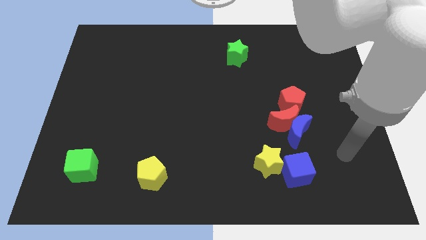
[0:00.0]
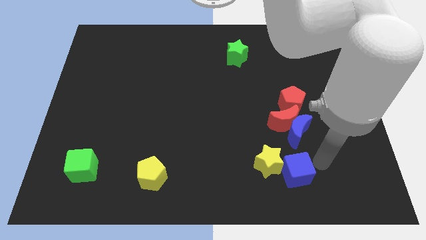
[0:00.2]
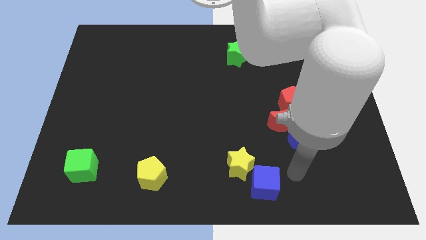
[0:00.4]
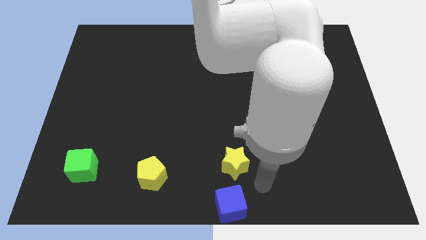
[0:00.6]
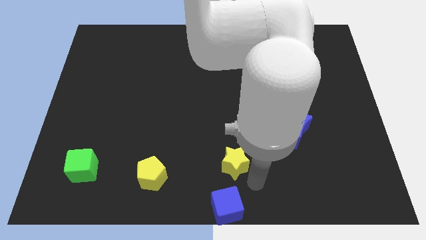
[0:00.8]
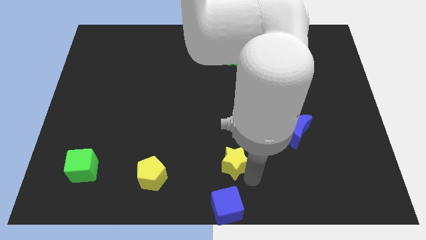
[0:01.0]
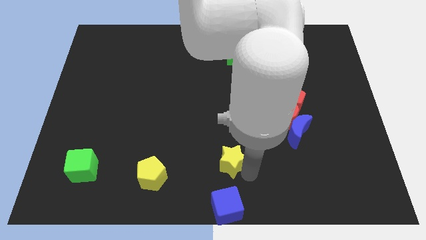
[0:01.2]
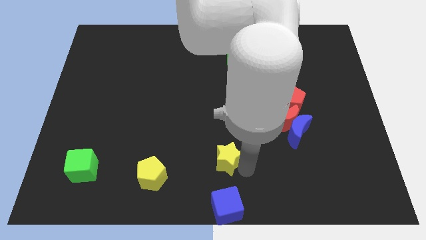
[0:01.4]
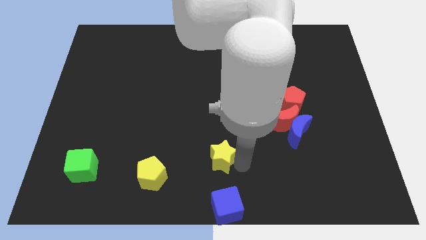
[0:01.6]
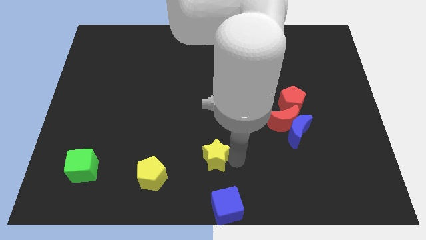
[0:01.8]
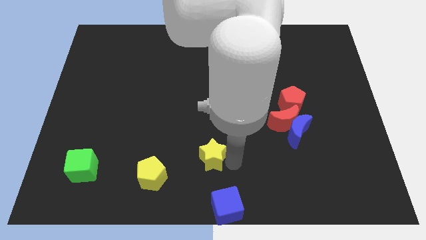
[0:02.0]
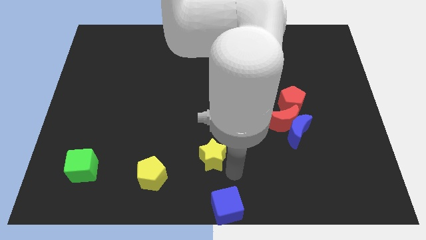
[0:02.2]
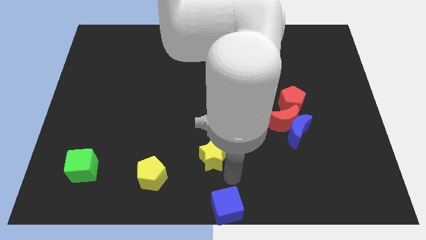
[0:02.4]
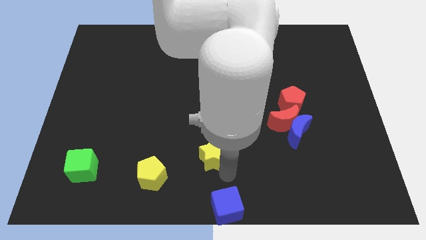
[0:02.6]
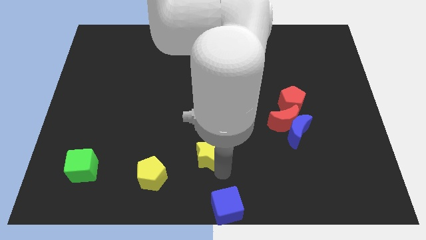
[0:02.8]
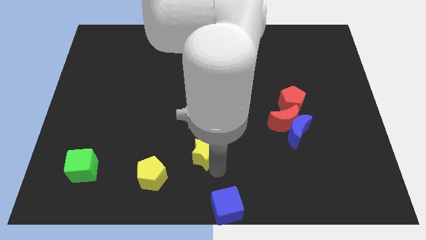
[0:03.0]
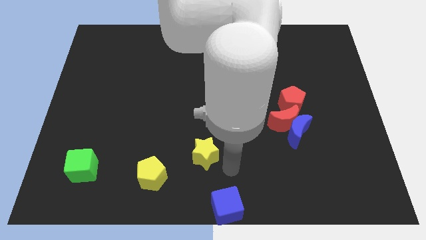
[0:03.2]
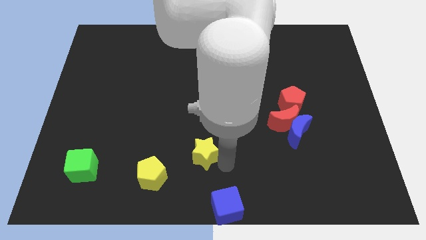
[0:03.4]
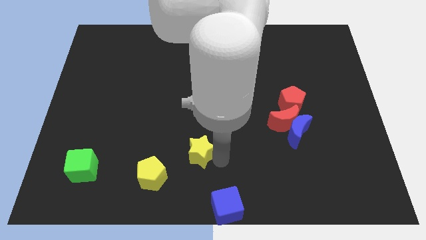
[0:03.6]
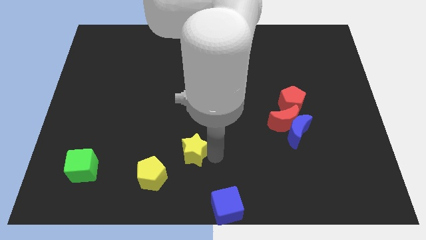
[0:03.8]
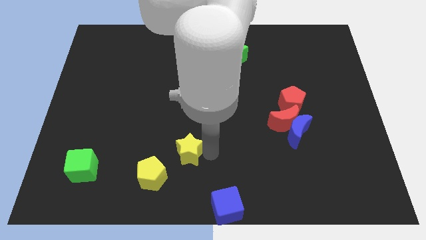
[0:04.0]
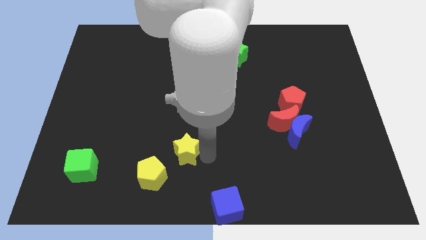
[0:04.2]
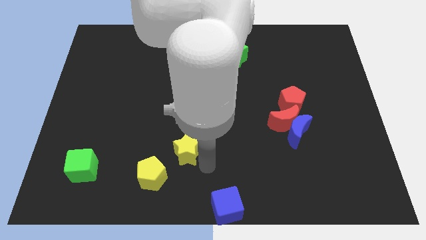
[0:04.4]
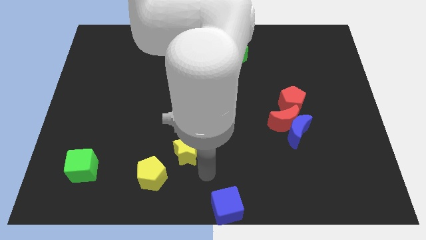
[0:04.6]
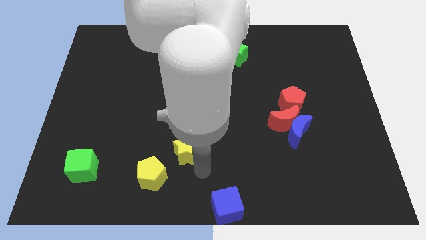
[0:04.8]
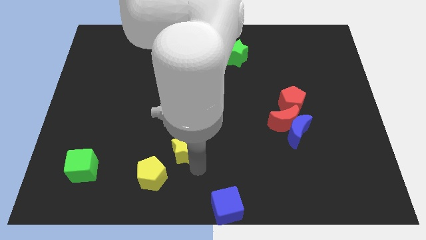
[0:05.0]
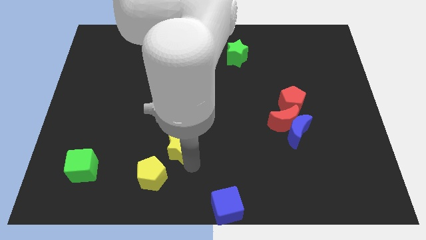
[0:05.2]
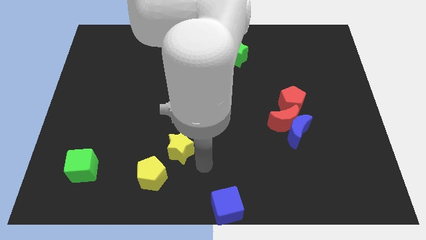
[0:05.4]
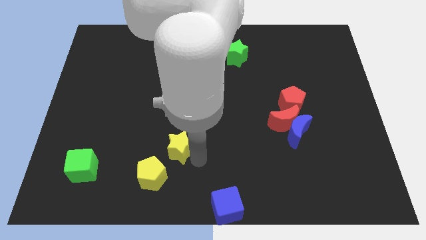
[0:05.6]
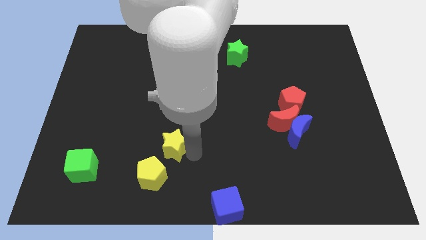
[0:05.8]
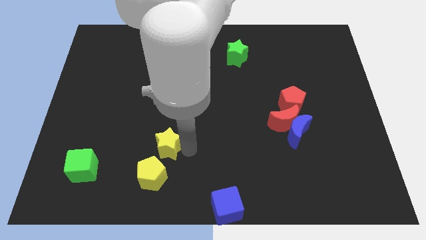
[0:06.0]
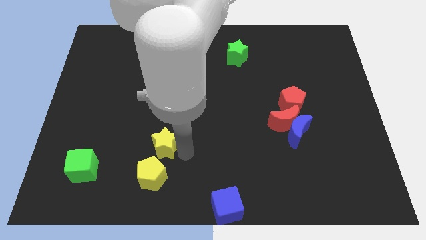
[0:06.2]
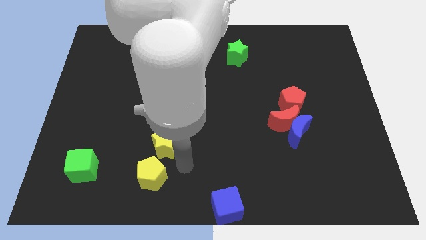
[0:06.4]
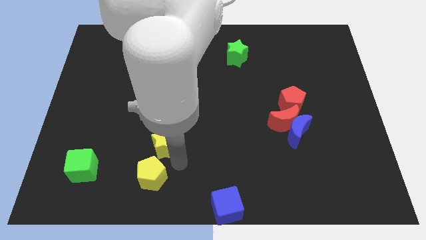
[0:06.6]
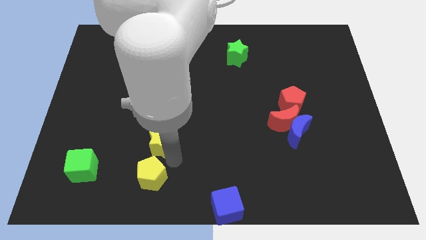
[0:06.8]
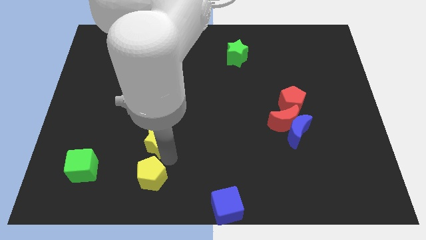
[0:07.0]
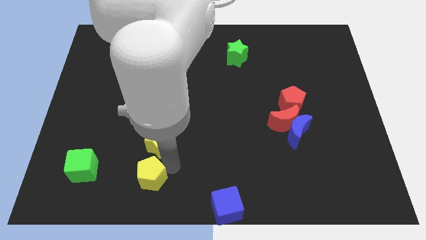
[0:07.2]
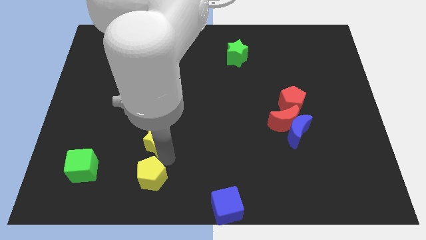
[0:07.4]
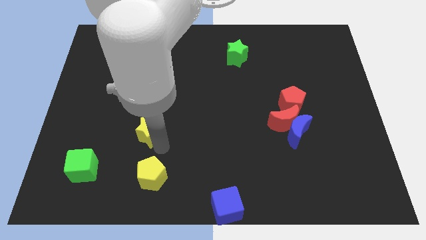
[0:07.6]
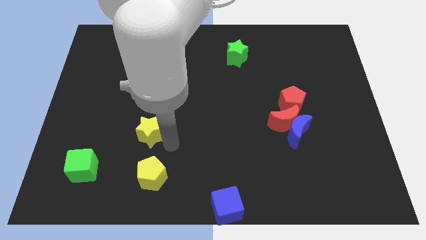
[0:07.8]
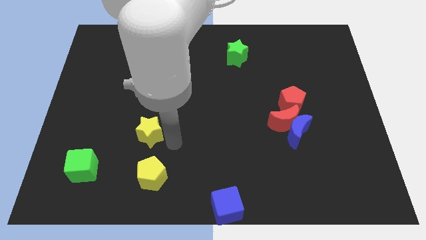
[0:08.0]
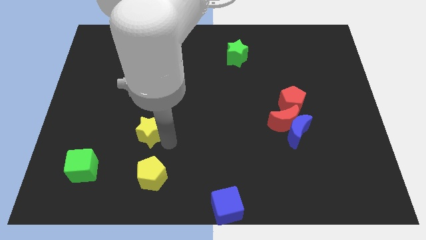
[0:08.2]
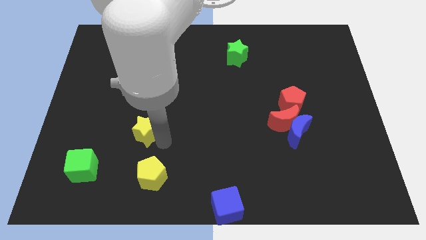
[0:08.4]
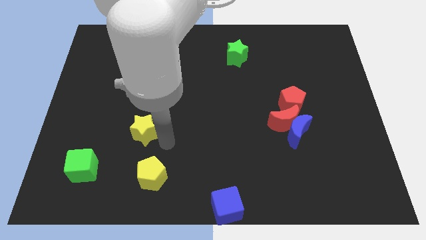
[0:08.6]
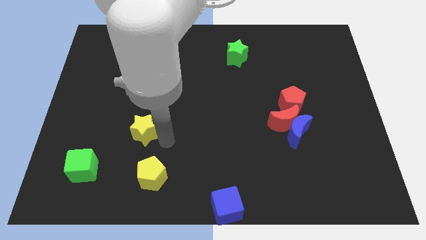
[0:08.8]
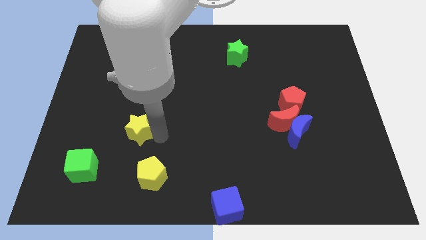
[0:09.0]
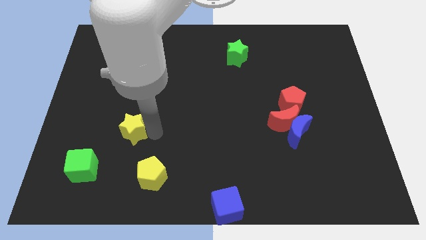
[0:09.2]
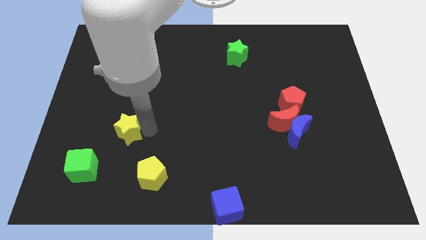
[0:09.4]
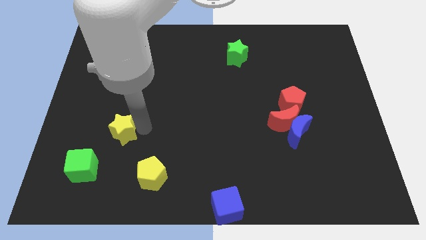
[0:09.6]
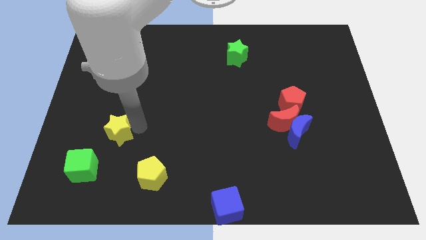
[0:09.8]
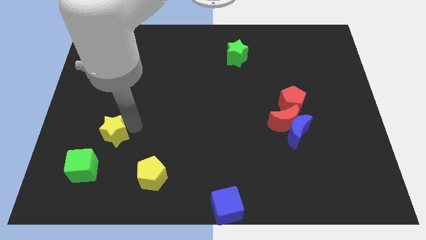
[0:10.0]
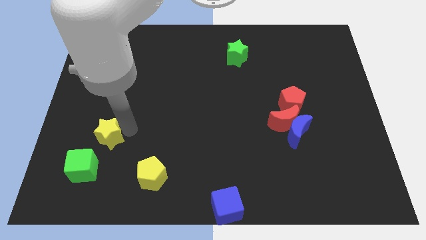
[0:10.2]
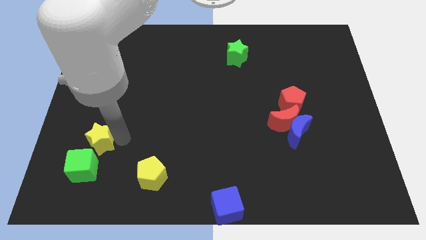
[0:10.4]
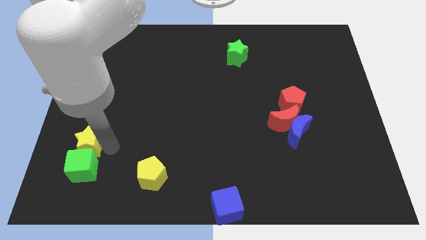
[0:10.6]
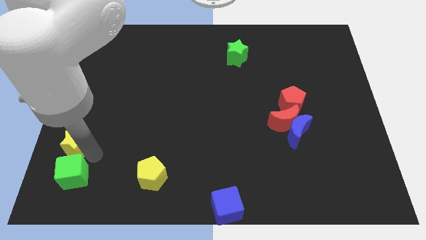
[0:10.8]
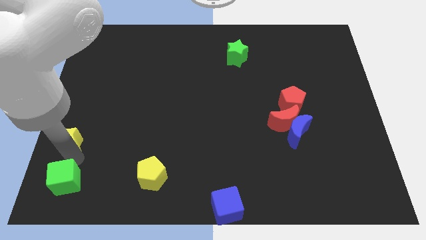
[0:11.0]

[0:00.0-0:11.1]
put the yellow star to the left side

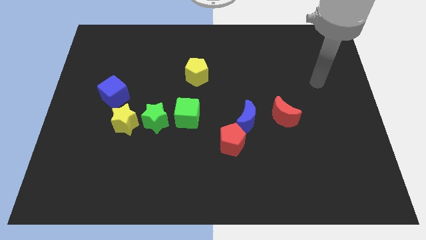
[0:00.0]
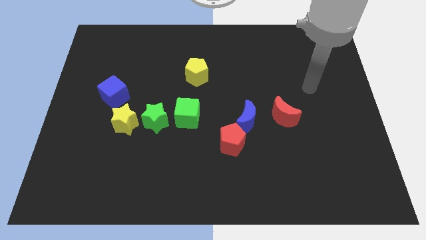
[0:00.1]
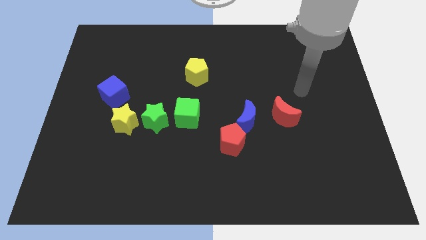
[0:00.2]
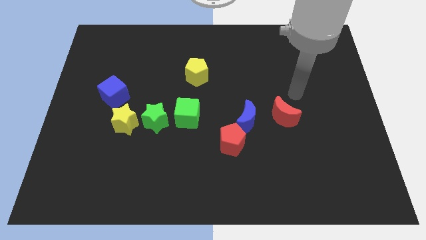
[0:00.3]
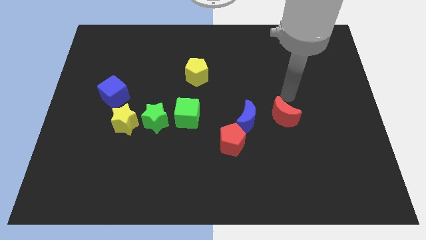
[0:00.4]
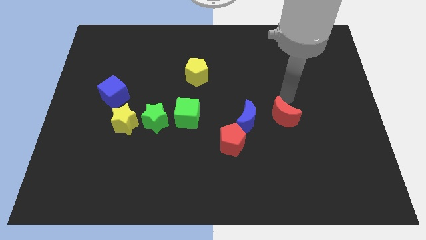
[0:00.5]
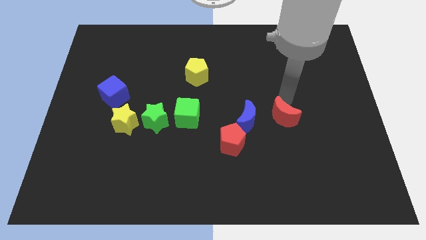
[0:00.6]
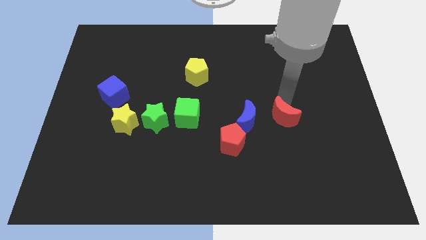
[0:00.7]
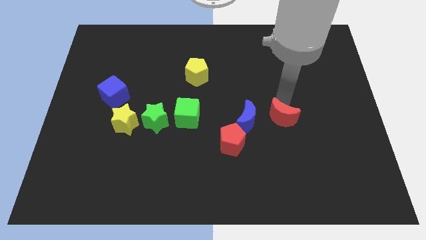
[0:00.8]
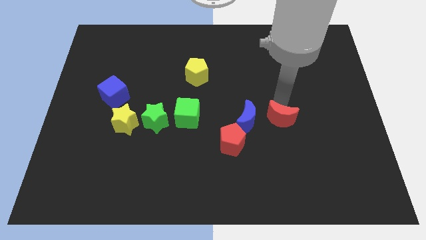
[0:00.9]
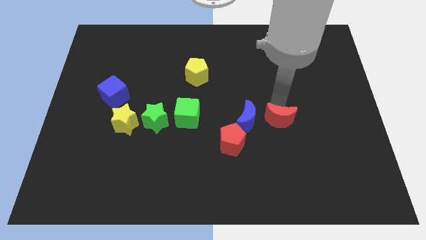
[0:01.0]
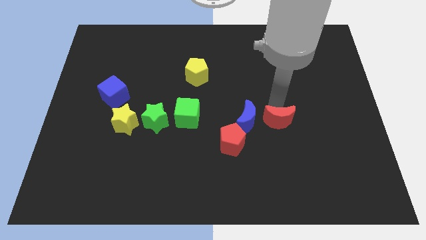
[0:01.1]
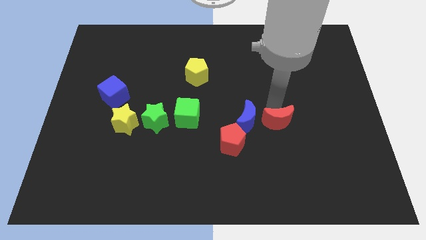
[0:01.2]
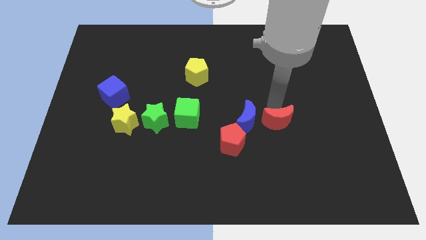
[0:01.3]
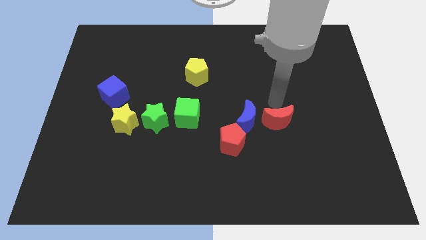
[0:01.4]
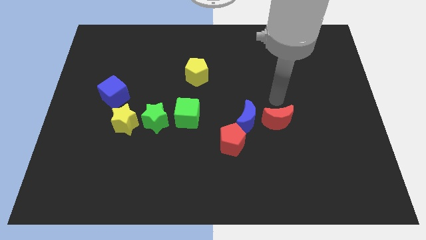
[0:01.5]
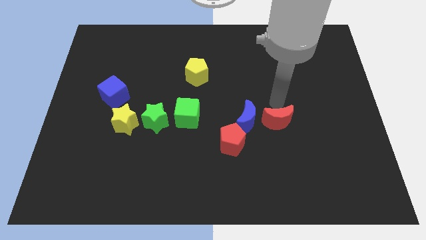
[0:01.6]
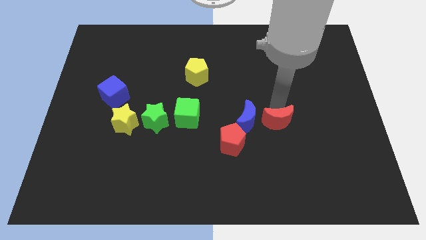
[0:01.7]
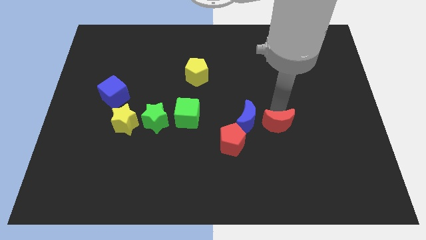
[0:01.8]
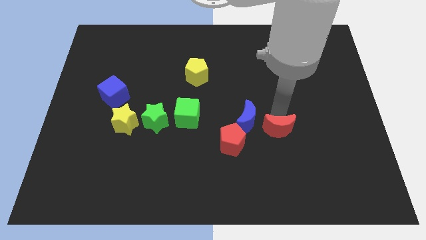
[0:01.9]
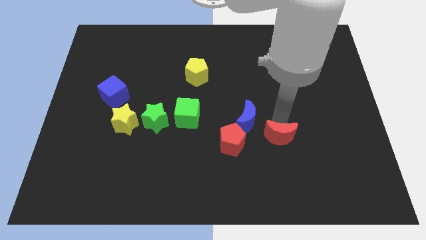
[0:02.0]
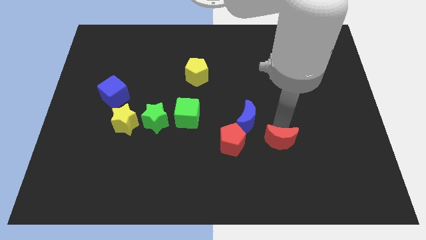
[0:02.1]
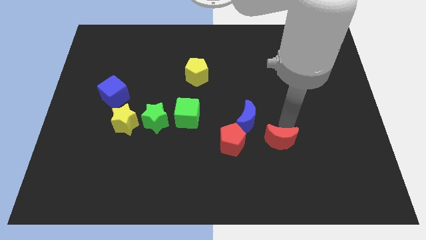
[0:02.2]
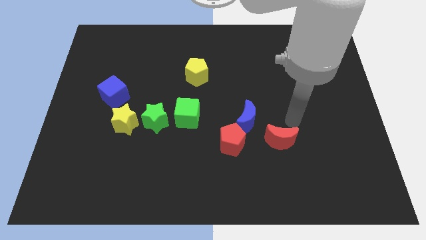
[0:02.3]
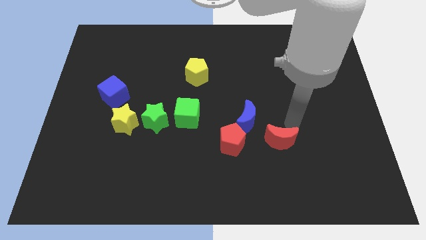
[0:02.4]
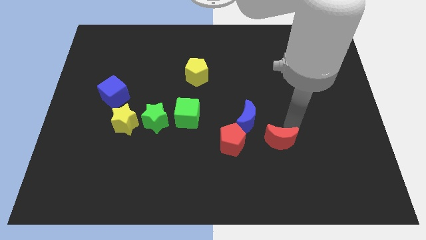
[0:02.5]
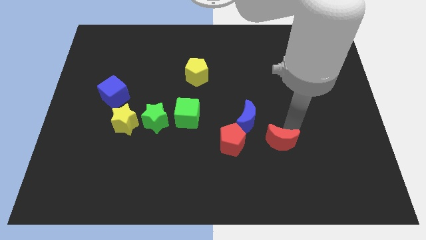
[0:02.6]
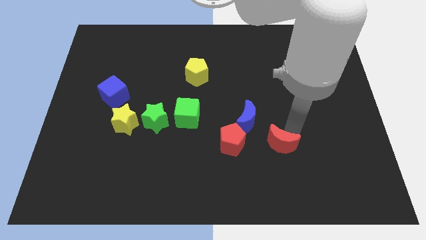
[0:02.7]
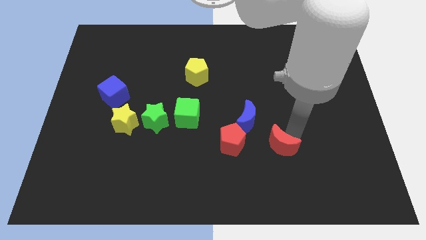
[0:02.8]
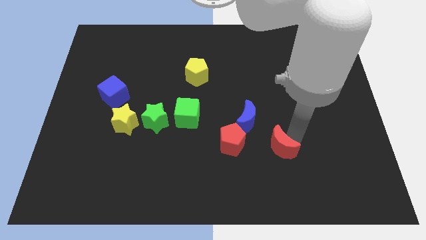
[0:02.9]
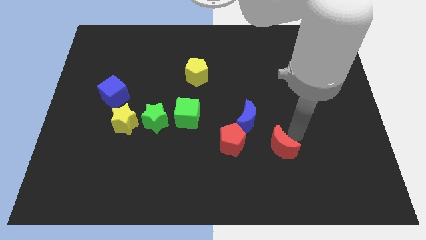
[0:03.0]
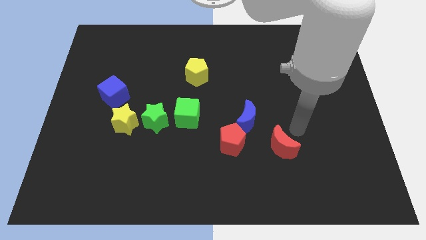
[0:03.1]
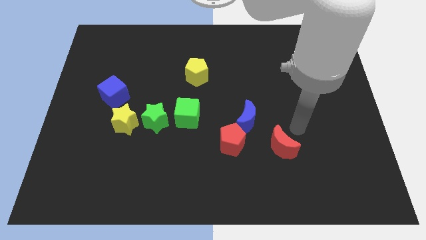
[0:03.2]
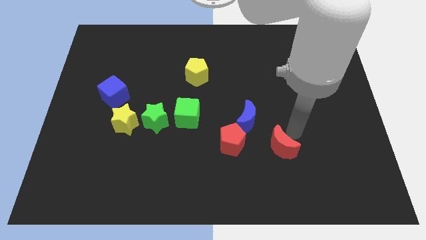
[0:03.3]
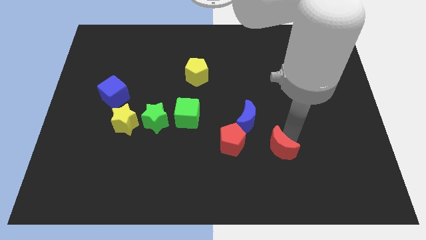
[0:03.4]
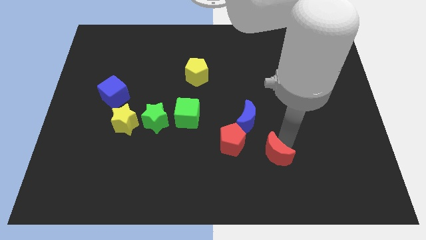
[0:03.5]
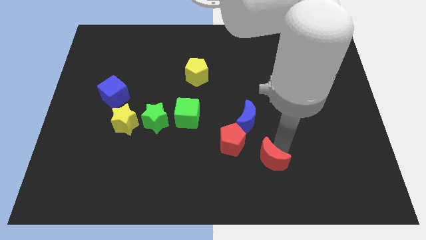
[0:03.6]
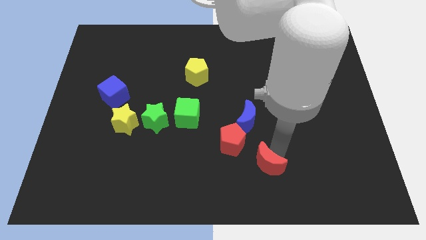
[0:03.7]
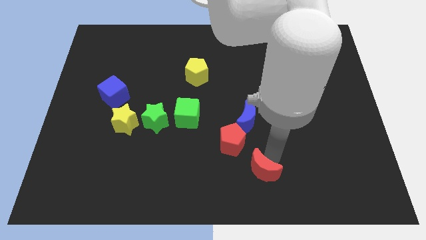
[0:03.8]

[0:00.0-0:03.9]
move the red moon to the bottom
